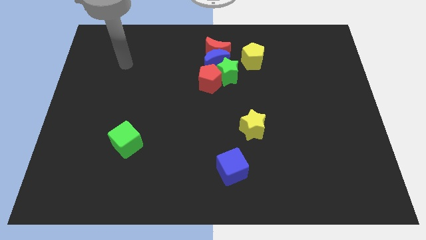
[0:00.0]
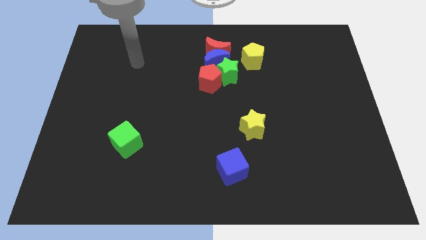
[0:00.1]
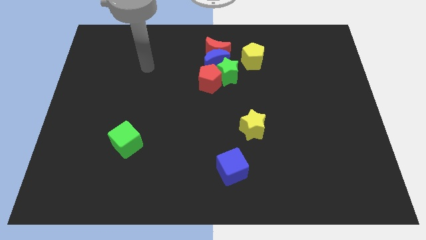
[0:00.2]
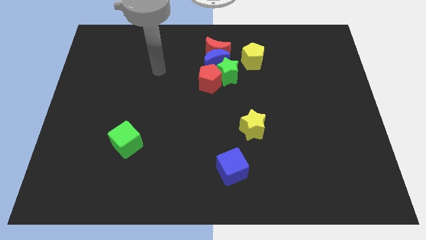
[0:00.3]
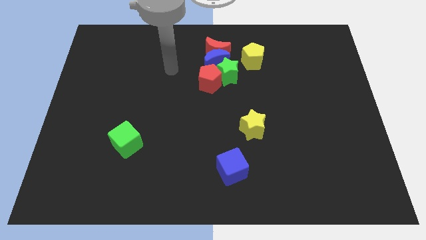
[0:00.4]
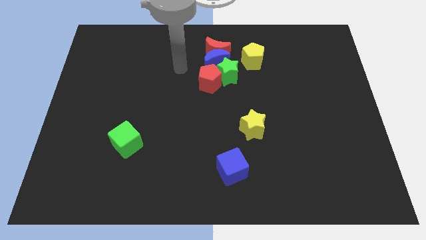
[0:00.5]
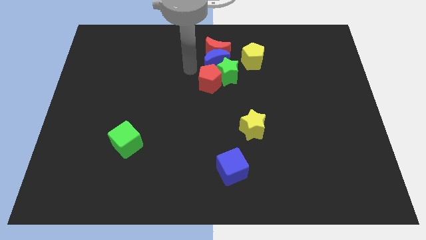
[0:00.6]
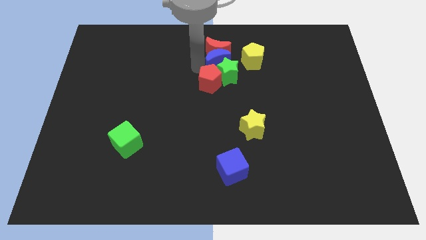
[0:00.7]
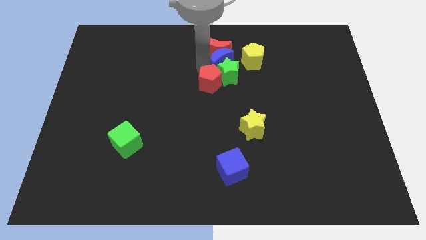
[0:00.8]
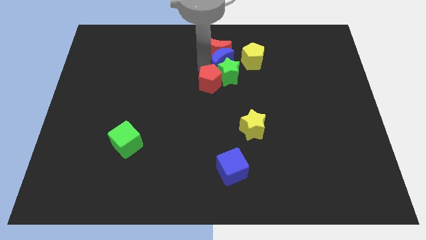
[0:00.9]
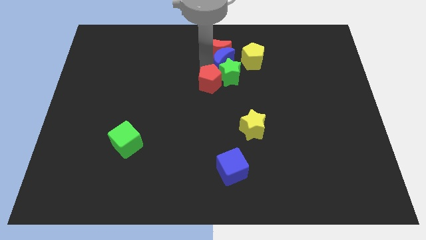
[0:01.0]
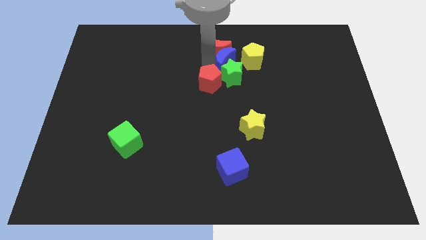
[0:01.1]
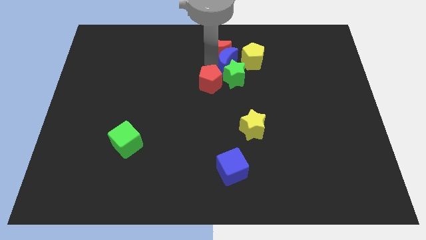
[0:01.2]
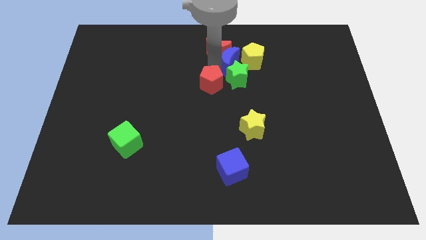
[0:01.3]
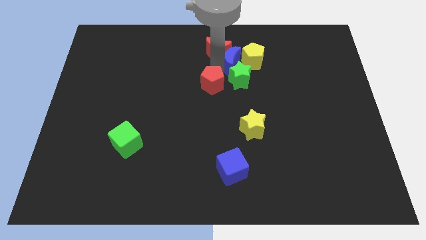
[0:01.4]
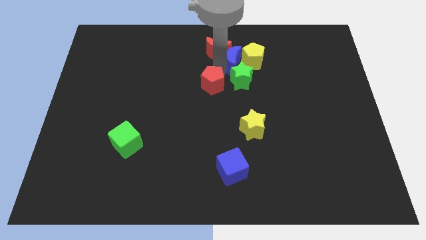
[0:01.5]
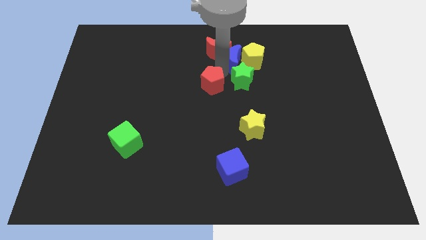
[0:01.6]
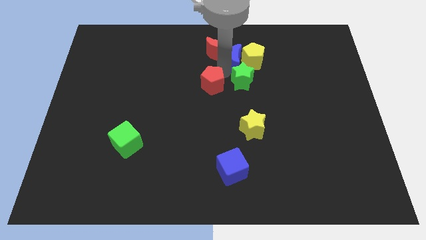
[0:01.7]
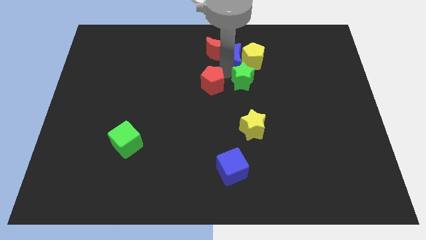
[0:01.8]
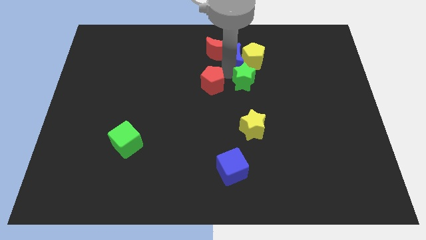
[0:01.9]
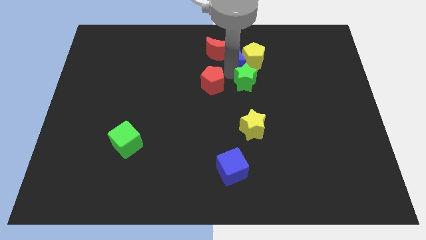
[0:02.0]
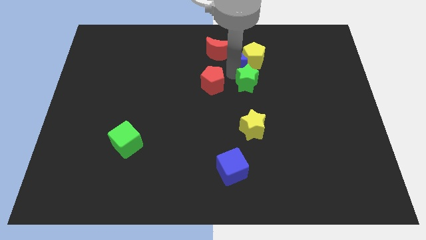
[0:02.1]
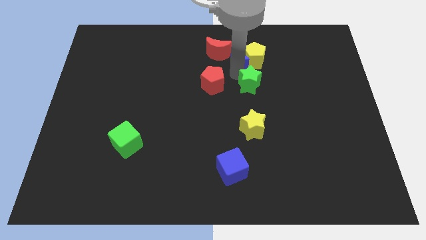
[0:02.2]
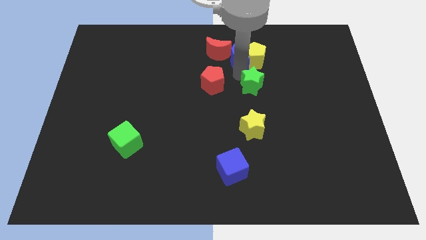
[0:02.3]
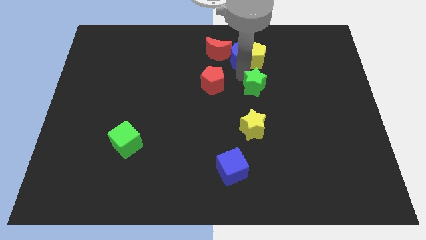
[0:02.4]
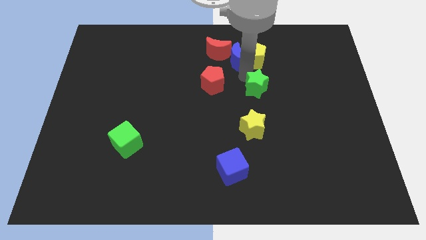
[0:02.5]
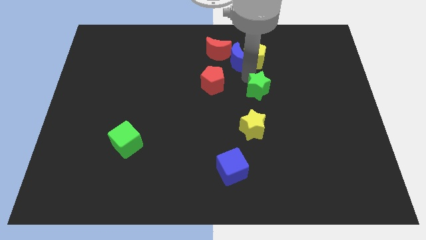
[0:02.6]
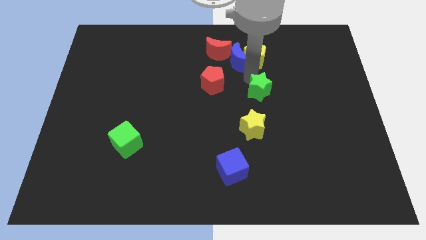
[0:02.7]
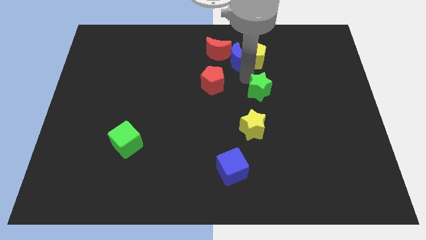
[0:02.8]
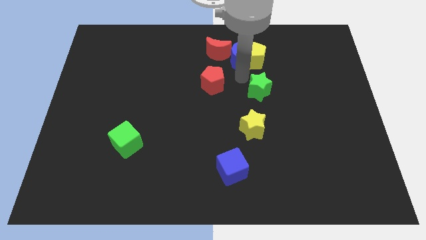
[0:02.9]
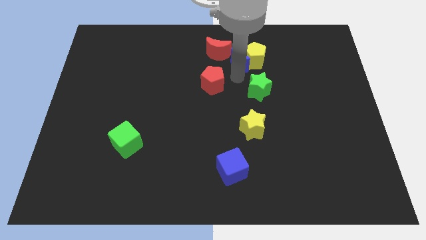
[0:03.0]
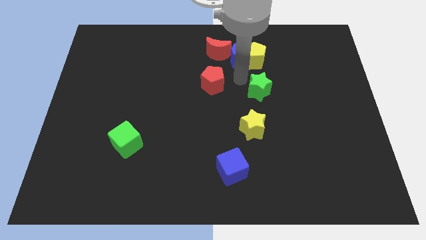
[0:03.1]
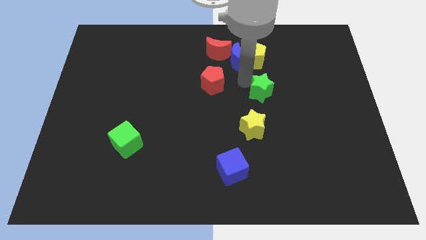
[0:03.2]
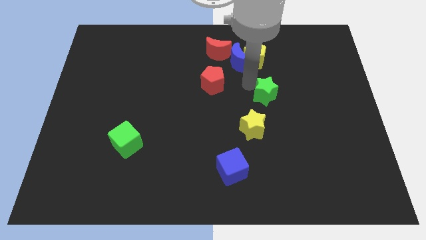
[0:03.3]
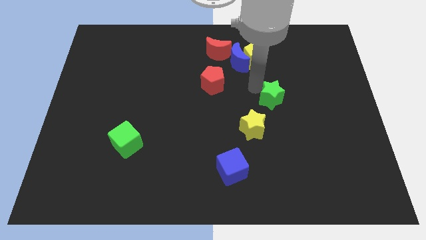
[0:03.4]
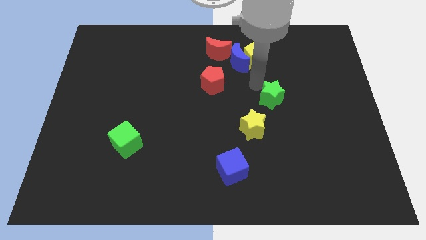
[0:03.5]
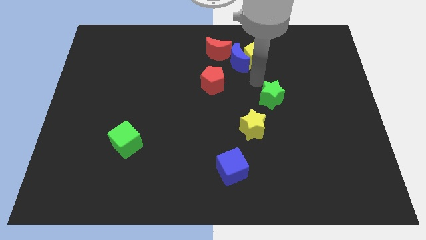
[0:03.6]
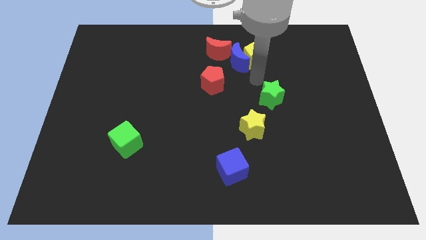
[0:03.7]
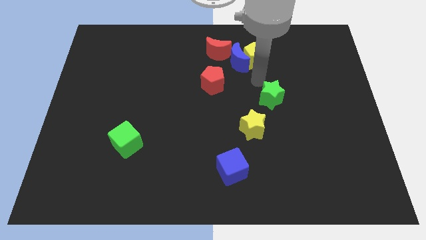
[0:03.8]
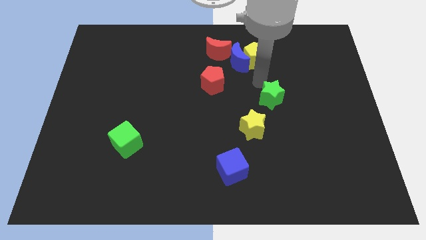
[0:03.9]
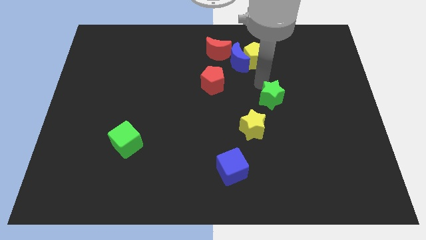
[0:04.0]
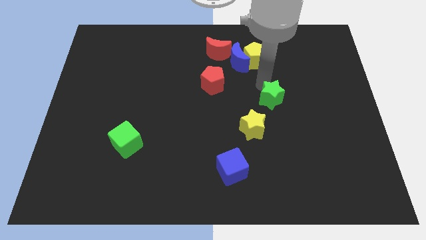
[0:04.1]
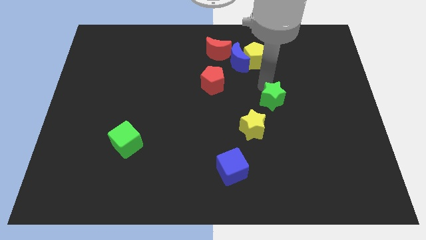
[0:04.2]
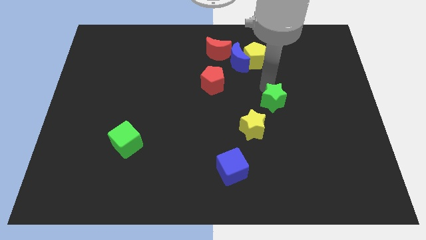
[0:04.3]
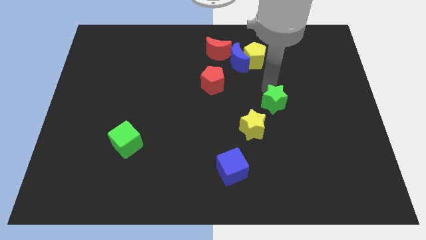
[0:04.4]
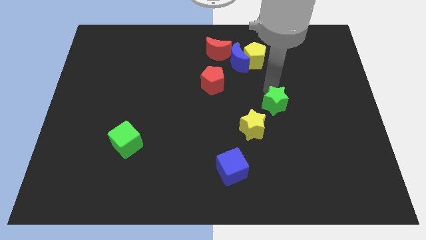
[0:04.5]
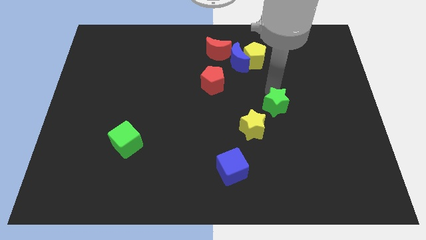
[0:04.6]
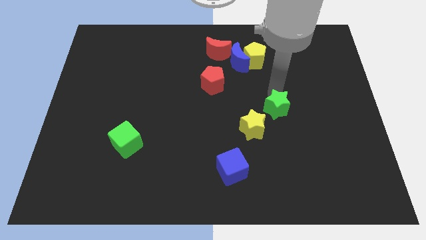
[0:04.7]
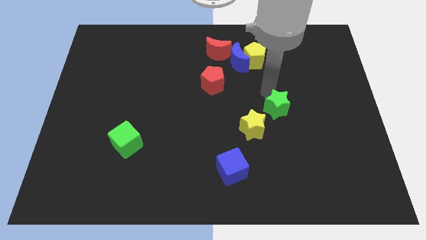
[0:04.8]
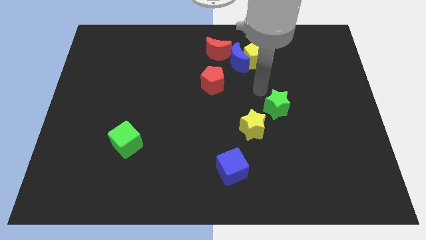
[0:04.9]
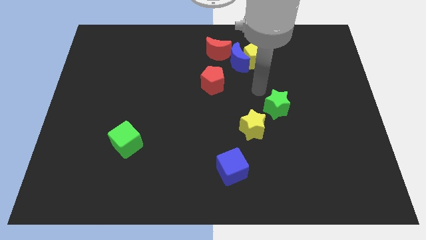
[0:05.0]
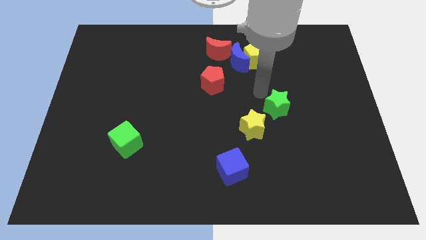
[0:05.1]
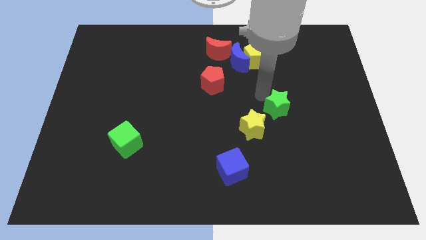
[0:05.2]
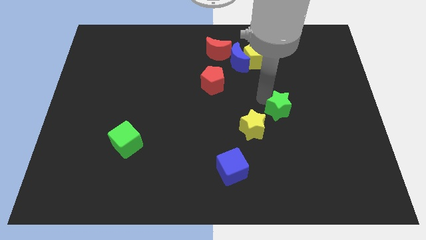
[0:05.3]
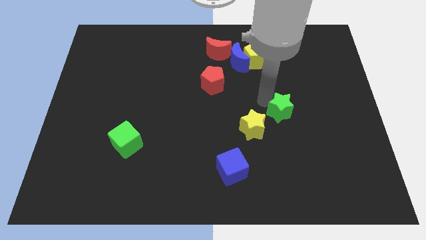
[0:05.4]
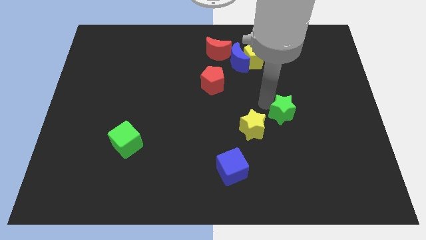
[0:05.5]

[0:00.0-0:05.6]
slide the green star to the right of the yellow star

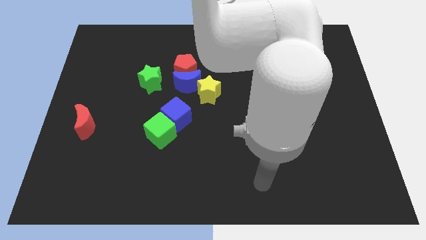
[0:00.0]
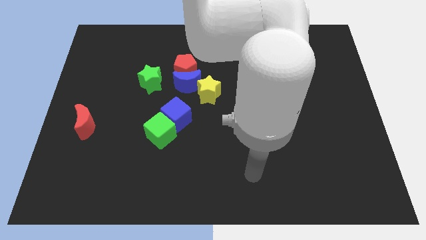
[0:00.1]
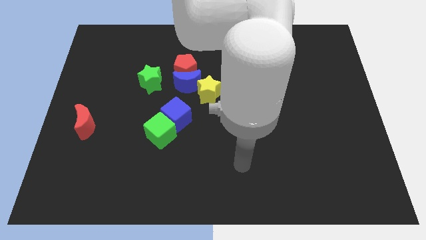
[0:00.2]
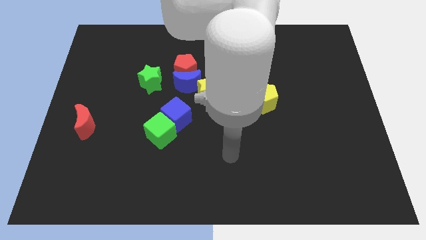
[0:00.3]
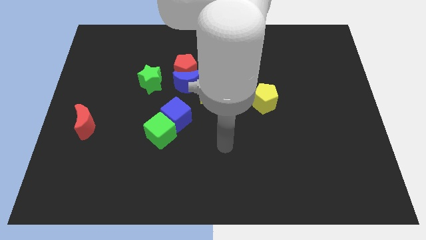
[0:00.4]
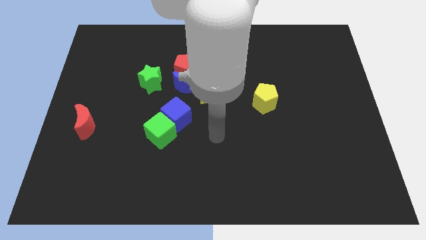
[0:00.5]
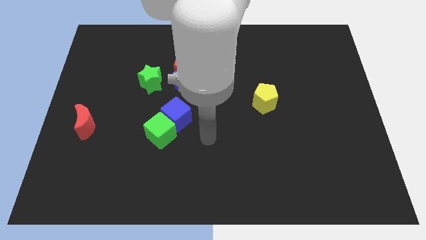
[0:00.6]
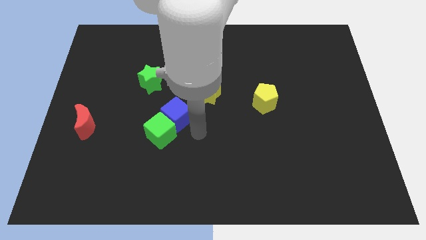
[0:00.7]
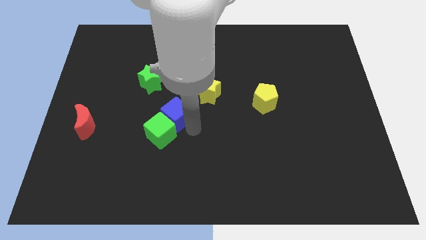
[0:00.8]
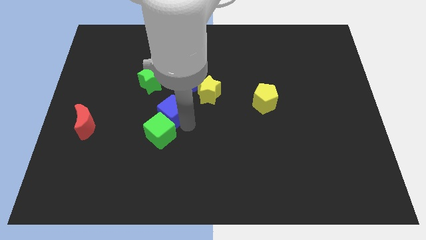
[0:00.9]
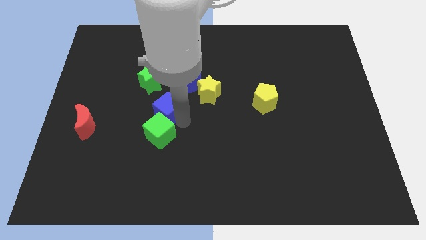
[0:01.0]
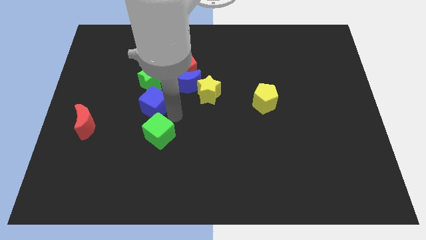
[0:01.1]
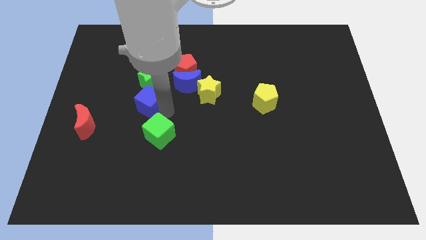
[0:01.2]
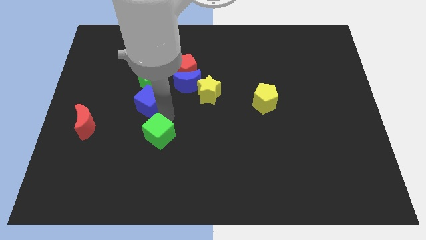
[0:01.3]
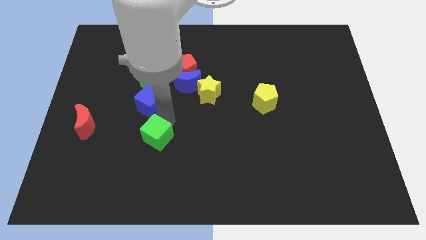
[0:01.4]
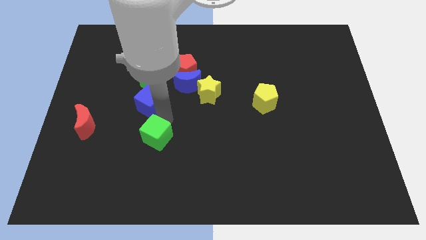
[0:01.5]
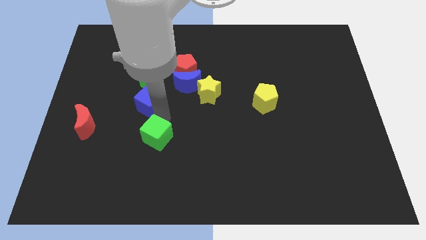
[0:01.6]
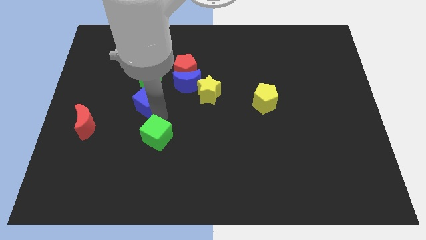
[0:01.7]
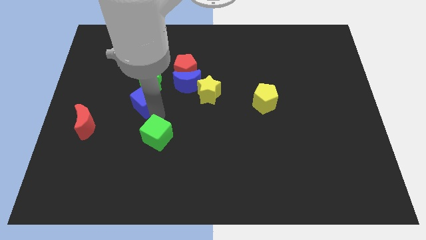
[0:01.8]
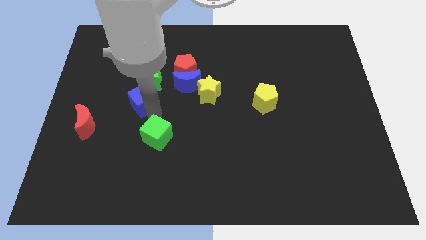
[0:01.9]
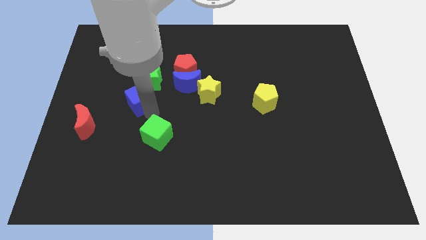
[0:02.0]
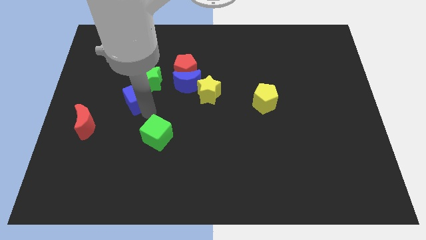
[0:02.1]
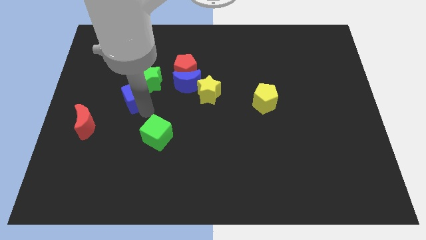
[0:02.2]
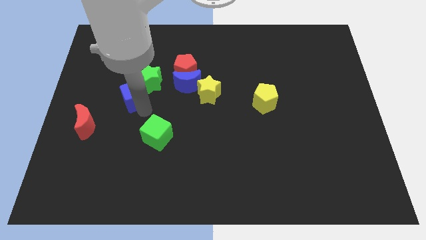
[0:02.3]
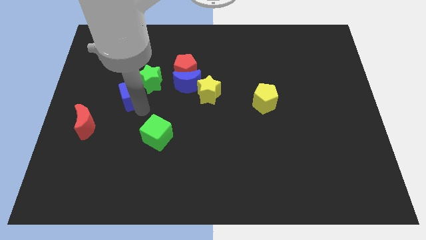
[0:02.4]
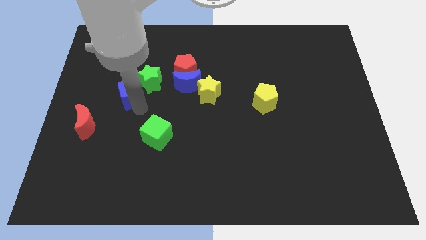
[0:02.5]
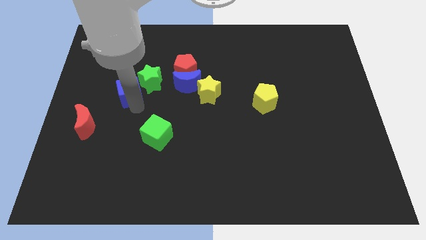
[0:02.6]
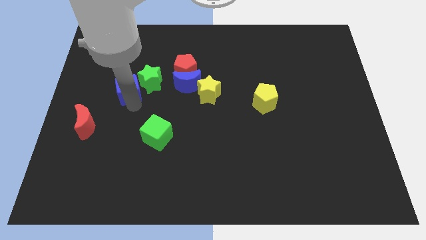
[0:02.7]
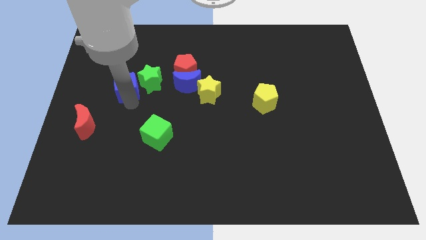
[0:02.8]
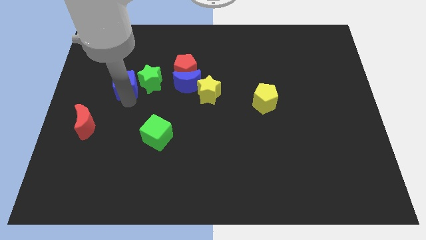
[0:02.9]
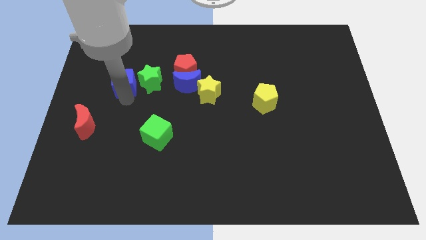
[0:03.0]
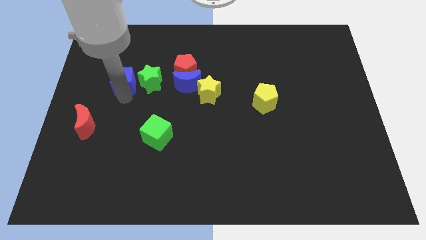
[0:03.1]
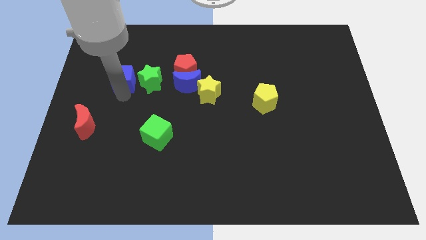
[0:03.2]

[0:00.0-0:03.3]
put the blue cube to the top left of the green star
